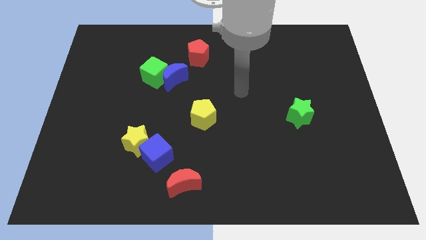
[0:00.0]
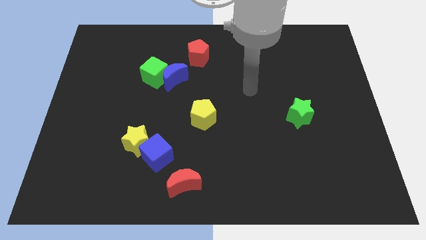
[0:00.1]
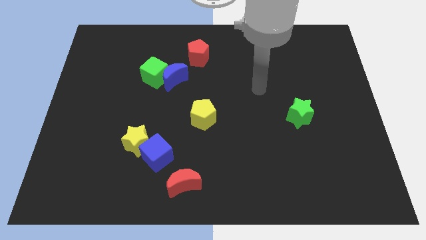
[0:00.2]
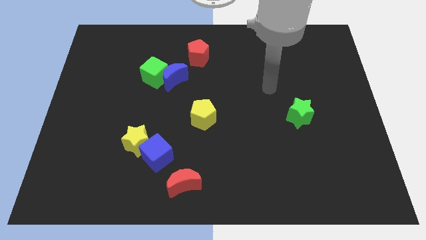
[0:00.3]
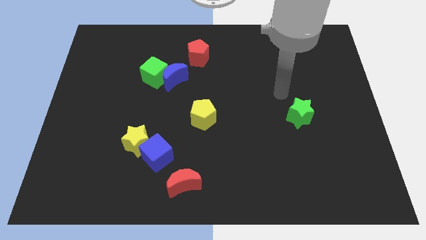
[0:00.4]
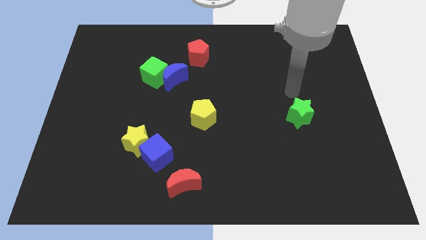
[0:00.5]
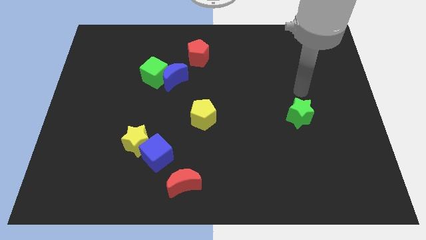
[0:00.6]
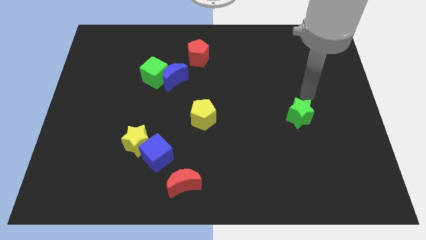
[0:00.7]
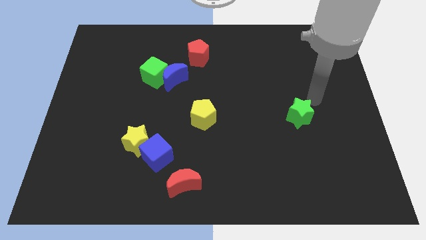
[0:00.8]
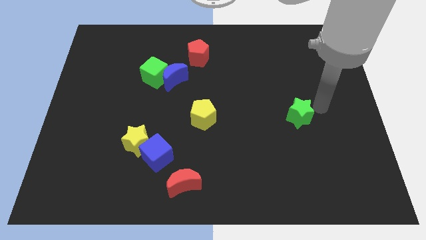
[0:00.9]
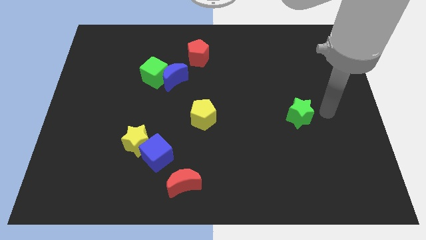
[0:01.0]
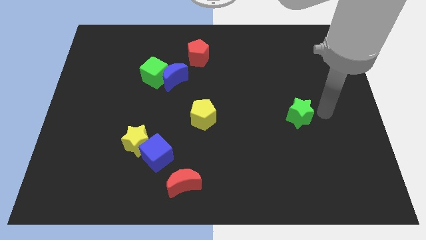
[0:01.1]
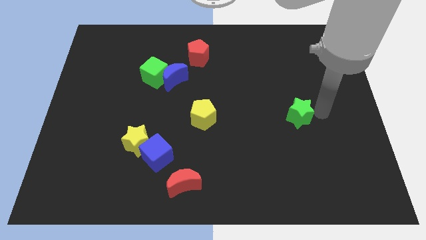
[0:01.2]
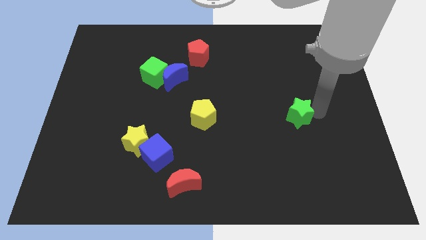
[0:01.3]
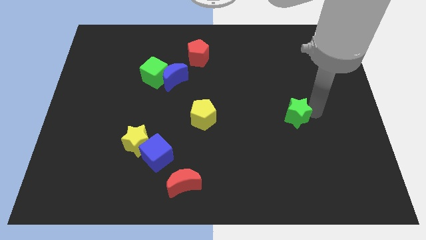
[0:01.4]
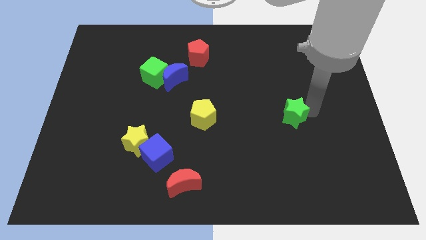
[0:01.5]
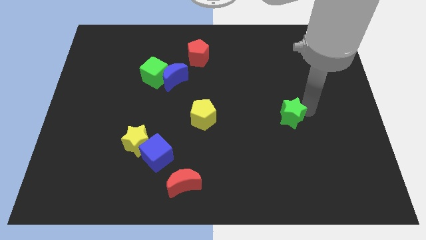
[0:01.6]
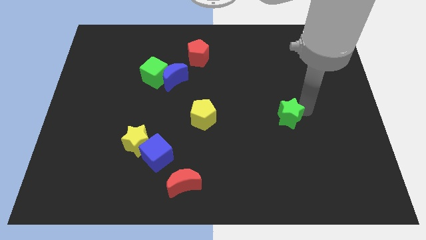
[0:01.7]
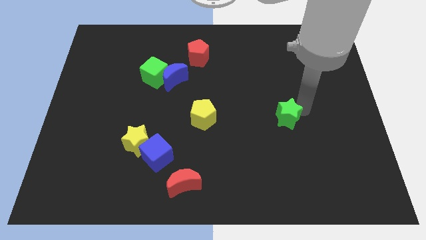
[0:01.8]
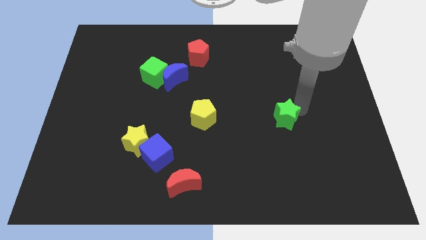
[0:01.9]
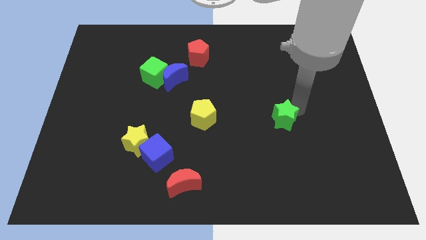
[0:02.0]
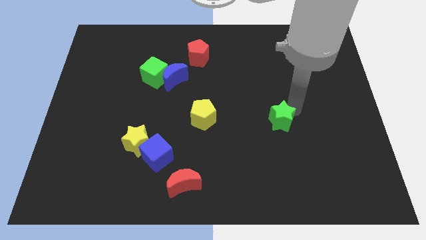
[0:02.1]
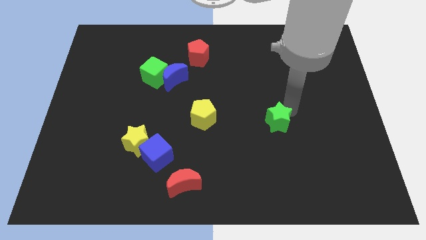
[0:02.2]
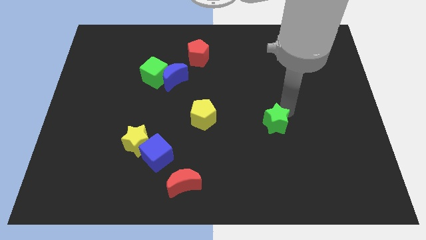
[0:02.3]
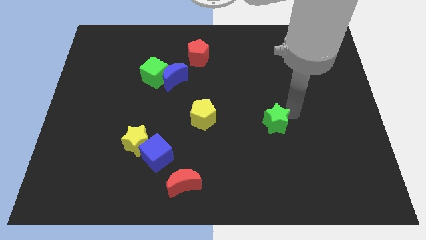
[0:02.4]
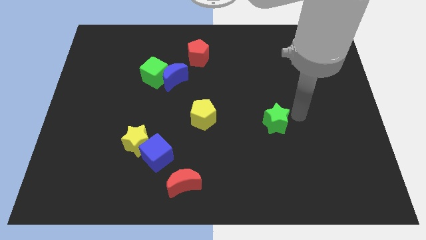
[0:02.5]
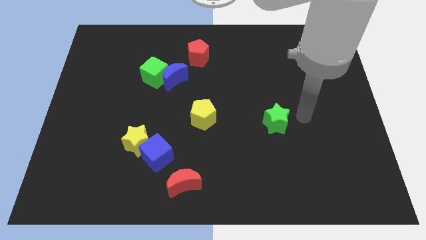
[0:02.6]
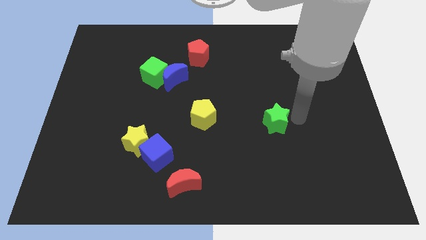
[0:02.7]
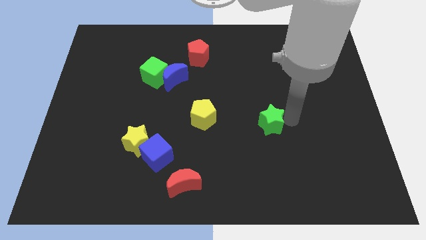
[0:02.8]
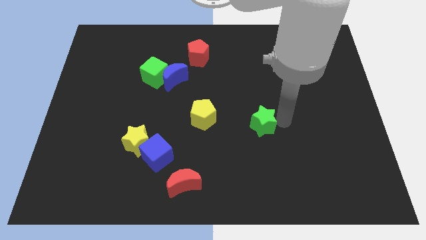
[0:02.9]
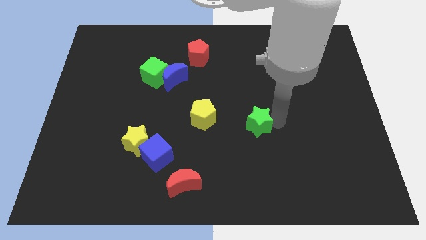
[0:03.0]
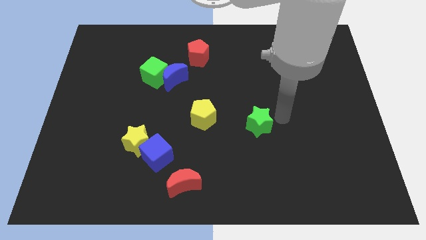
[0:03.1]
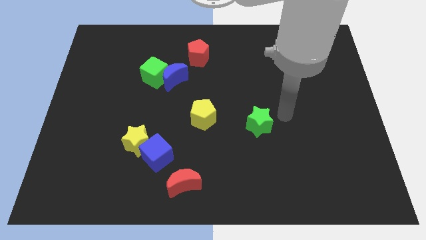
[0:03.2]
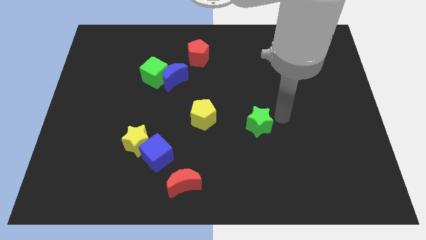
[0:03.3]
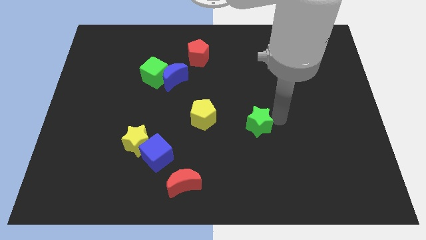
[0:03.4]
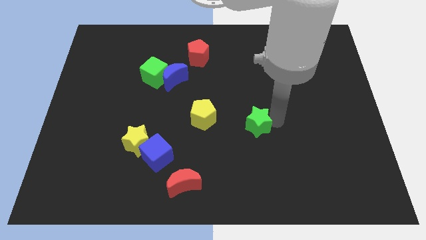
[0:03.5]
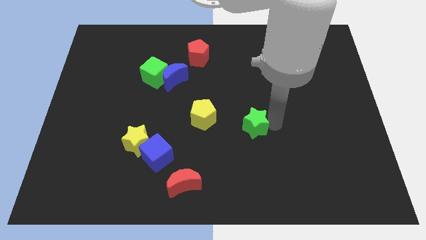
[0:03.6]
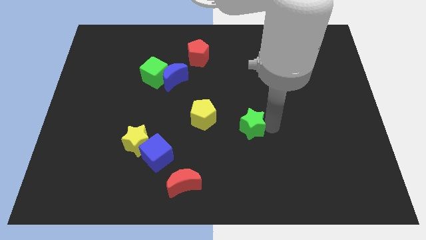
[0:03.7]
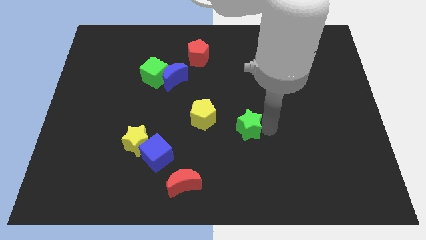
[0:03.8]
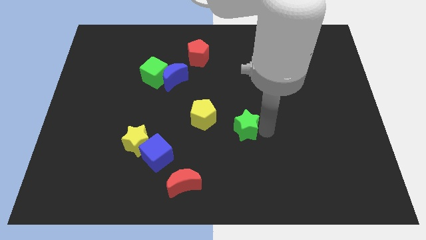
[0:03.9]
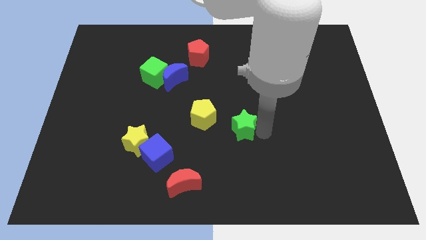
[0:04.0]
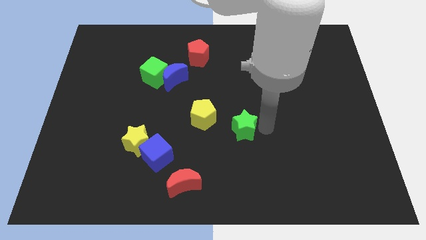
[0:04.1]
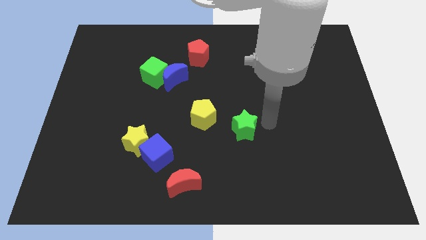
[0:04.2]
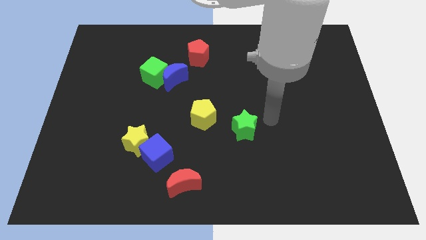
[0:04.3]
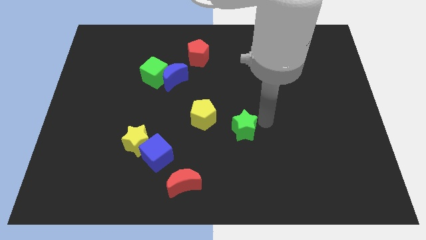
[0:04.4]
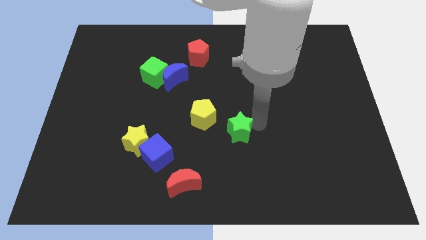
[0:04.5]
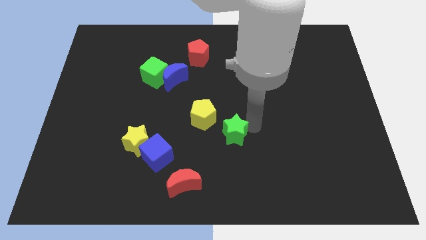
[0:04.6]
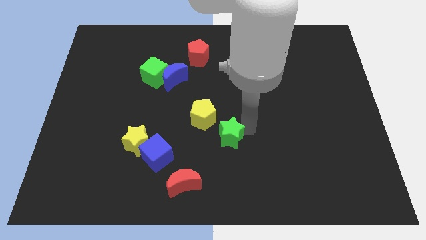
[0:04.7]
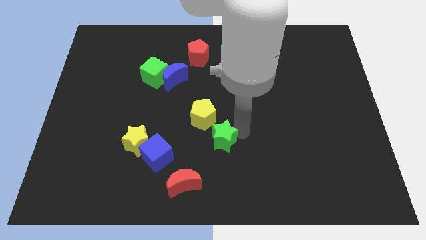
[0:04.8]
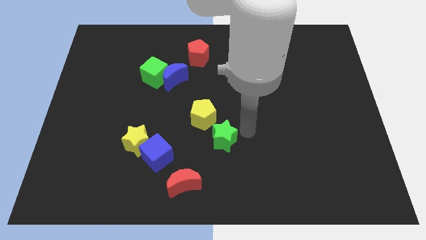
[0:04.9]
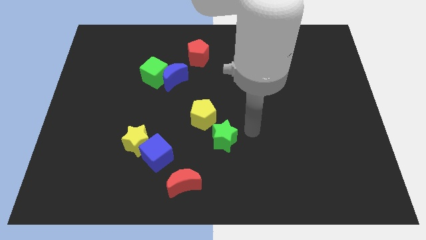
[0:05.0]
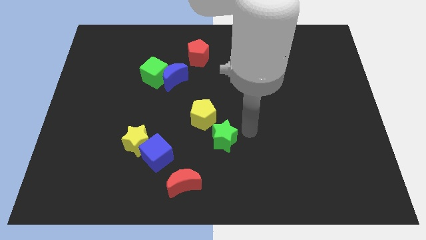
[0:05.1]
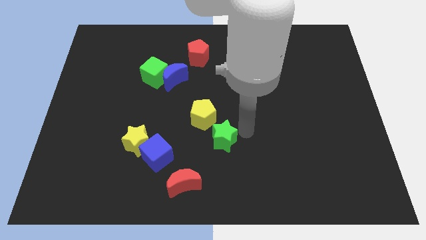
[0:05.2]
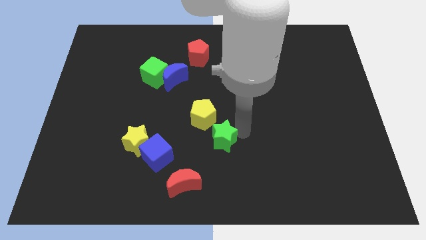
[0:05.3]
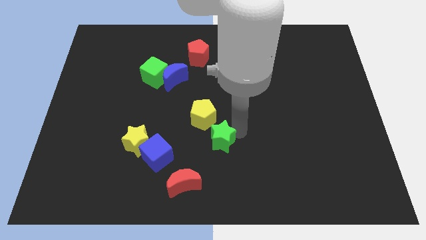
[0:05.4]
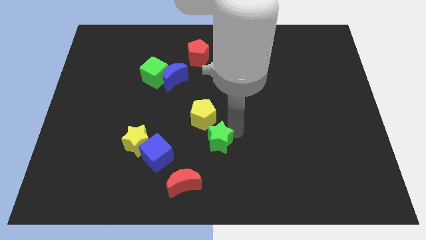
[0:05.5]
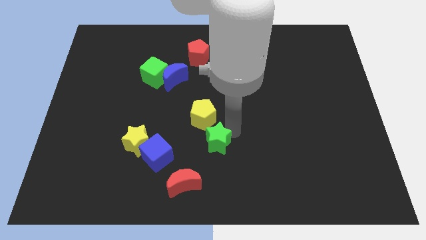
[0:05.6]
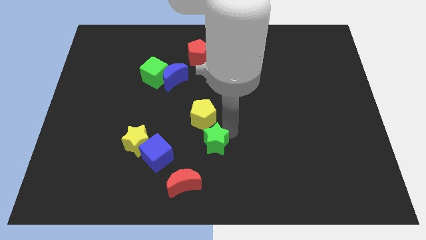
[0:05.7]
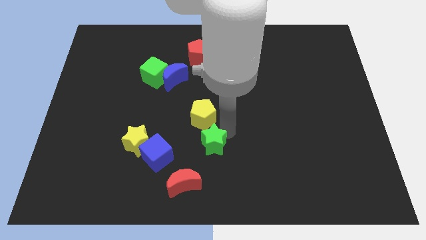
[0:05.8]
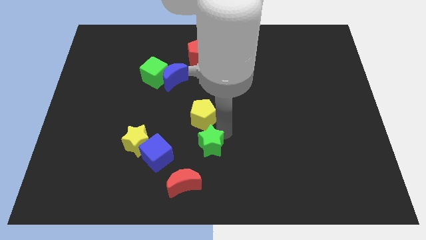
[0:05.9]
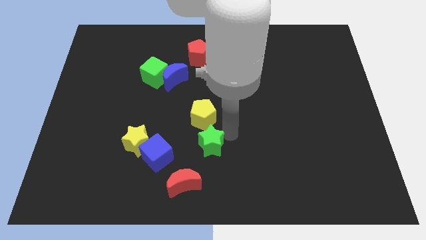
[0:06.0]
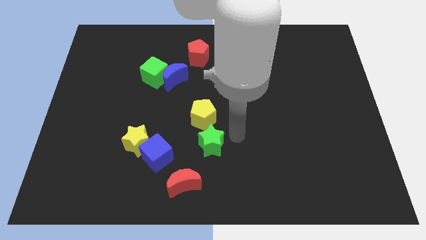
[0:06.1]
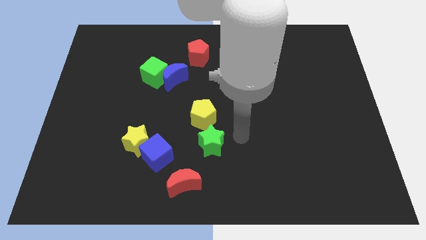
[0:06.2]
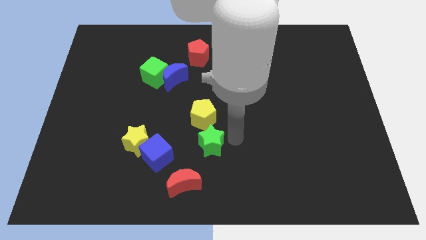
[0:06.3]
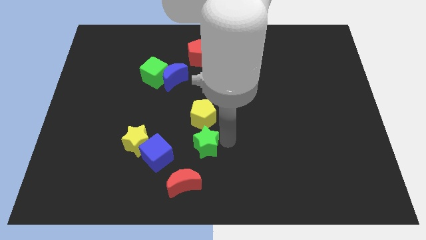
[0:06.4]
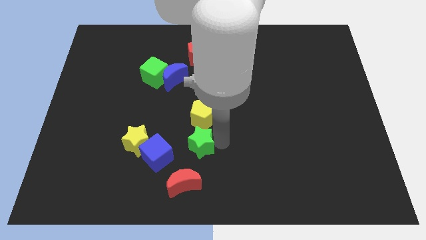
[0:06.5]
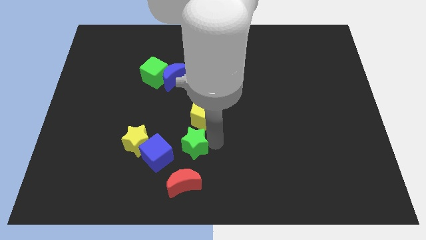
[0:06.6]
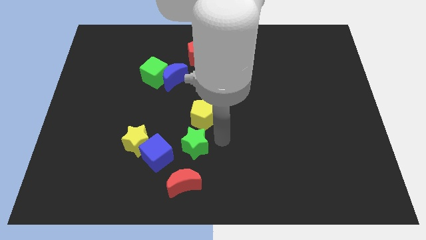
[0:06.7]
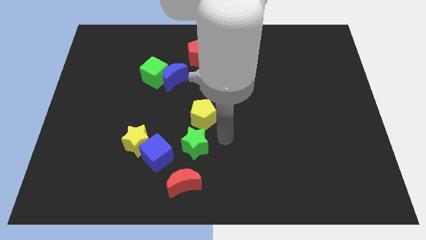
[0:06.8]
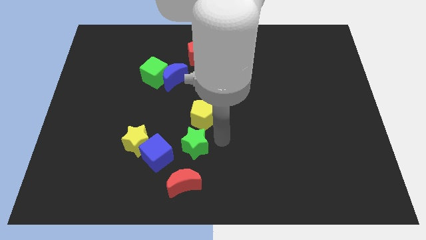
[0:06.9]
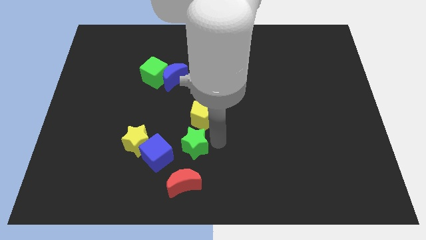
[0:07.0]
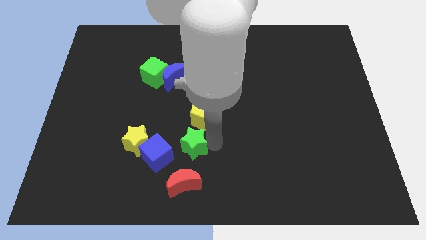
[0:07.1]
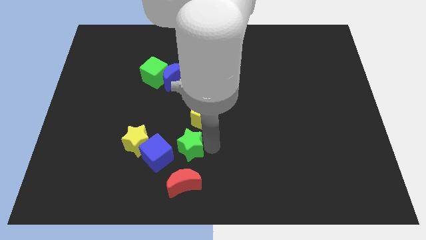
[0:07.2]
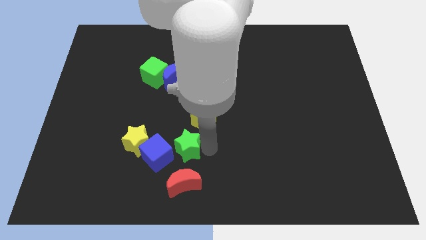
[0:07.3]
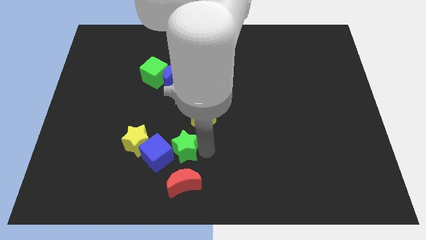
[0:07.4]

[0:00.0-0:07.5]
push the green star to the blue cube
